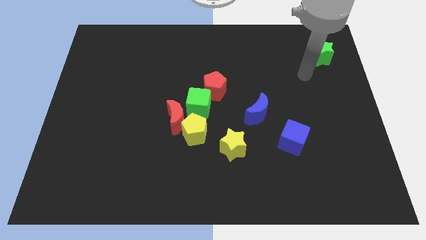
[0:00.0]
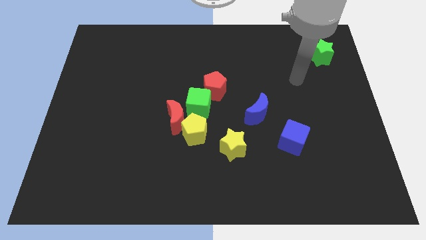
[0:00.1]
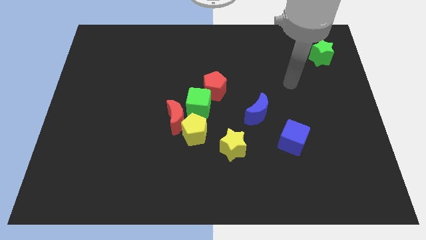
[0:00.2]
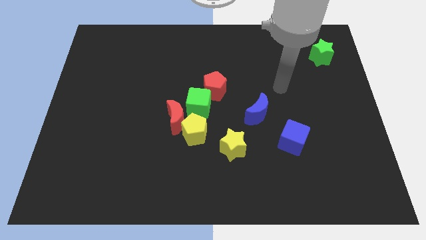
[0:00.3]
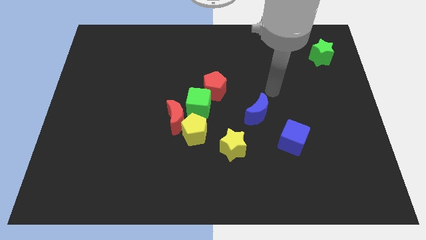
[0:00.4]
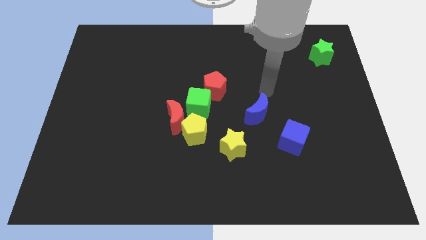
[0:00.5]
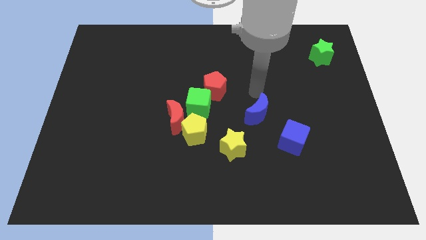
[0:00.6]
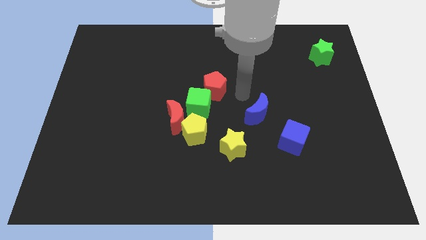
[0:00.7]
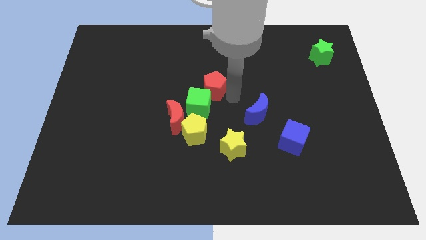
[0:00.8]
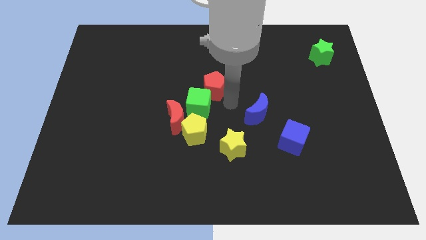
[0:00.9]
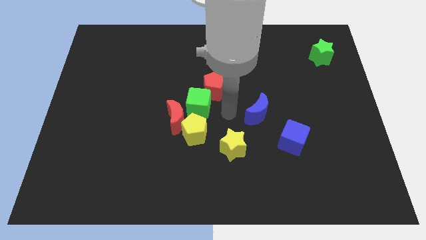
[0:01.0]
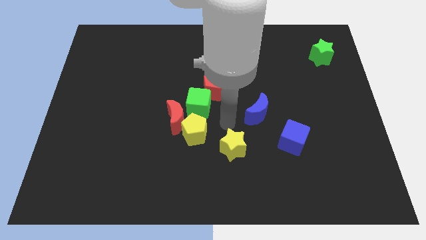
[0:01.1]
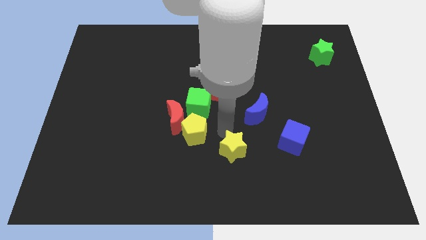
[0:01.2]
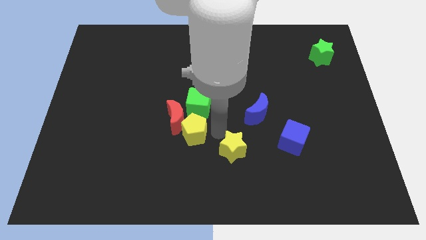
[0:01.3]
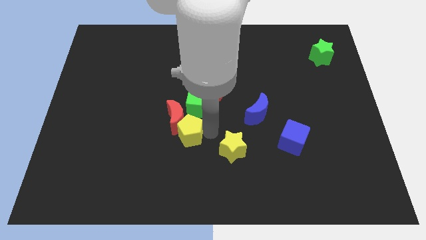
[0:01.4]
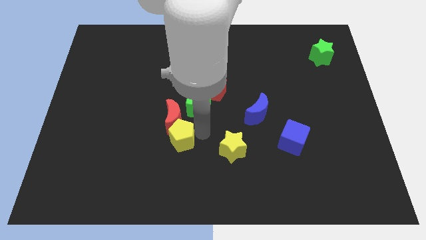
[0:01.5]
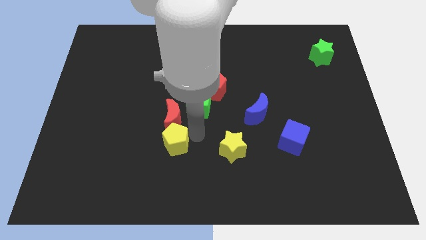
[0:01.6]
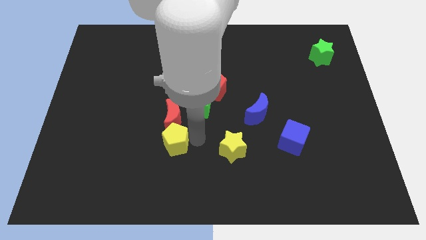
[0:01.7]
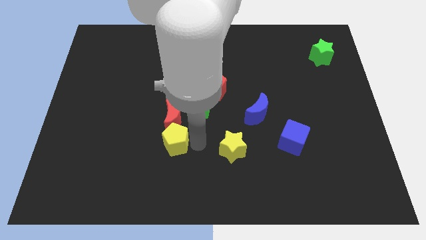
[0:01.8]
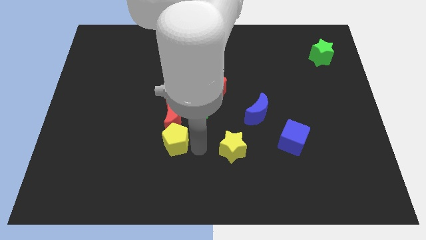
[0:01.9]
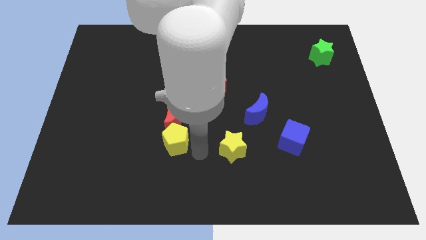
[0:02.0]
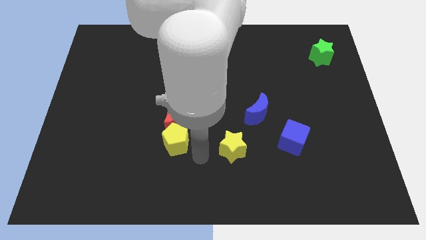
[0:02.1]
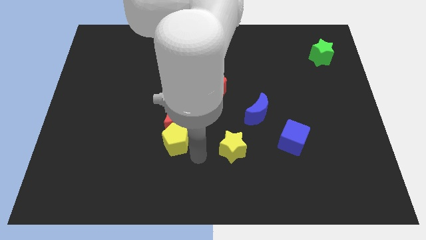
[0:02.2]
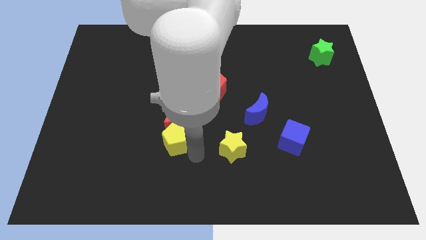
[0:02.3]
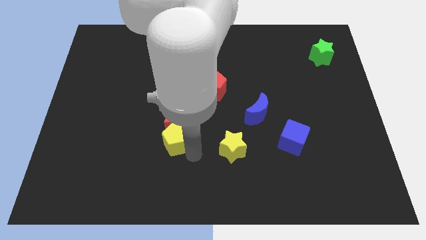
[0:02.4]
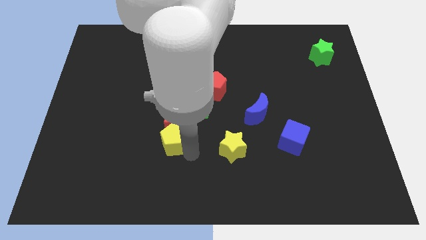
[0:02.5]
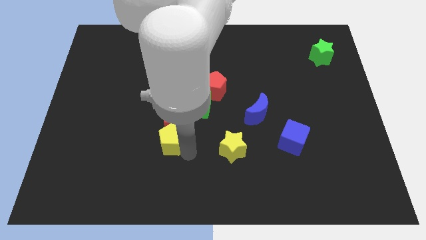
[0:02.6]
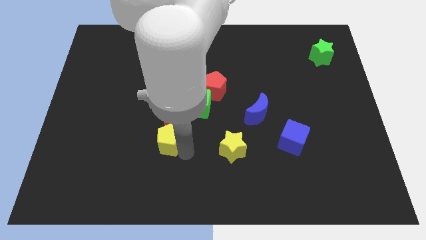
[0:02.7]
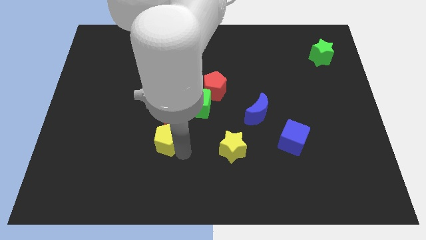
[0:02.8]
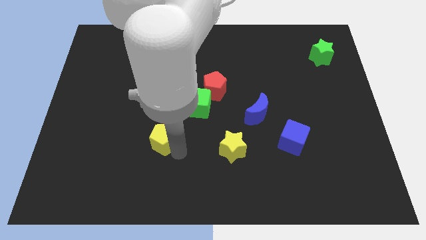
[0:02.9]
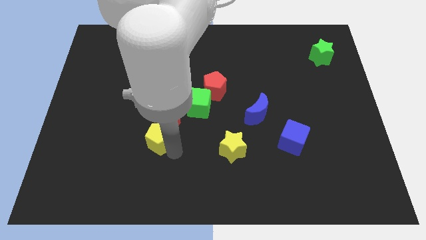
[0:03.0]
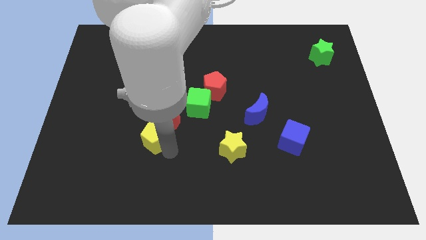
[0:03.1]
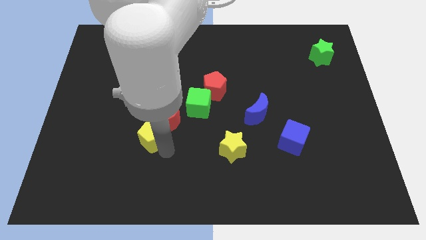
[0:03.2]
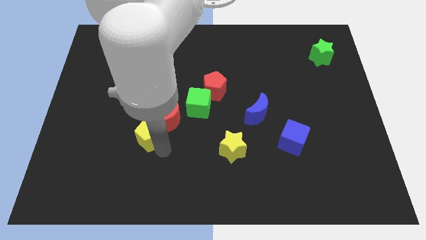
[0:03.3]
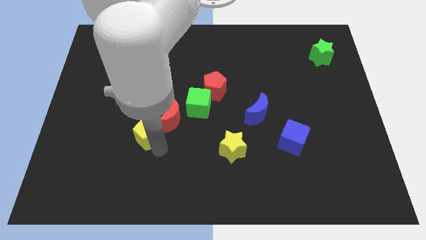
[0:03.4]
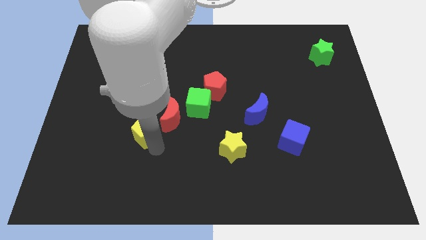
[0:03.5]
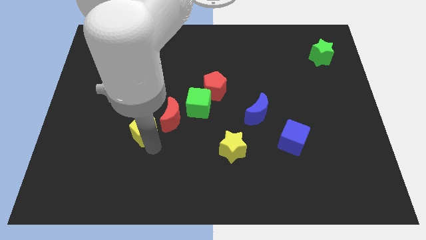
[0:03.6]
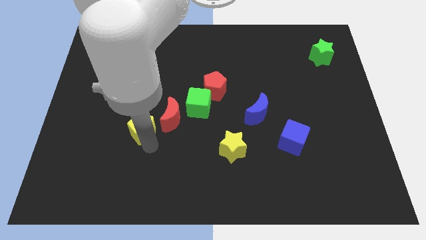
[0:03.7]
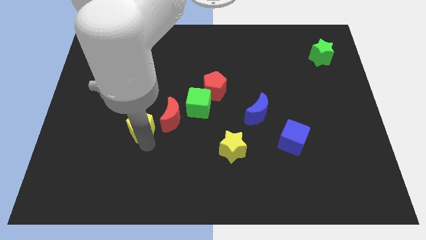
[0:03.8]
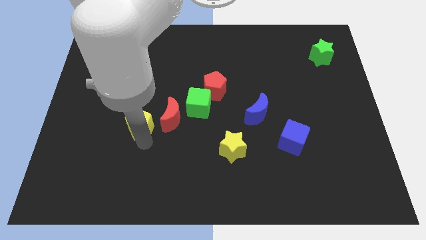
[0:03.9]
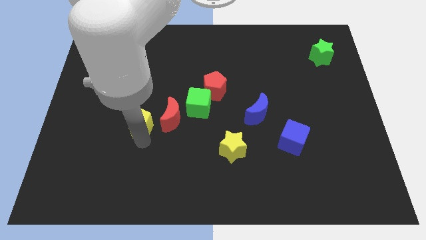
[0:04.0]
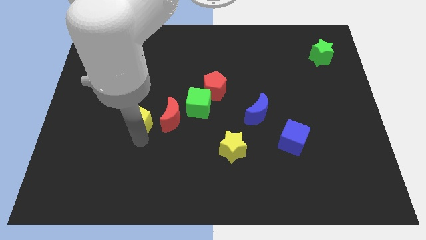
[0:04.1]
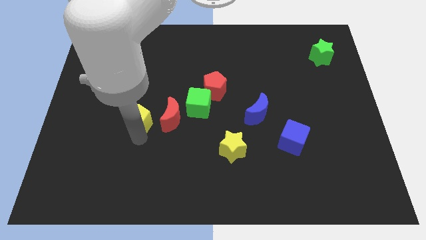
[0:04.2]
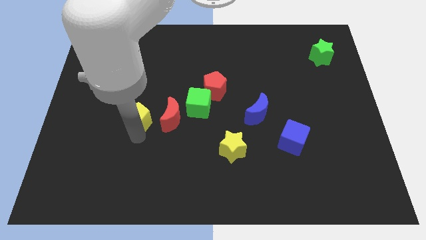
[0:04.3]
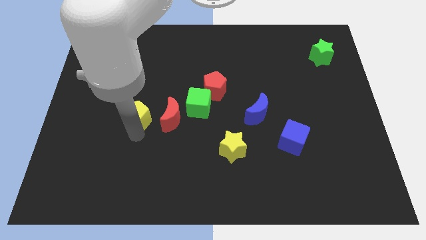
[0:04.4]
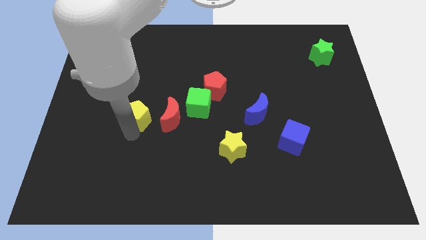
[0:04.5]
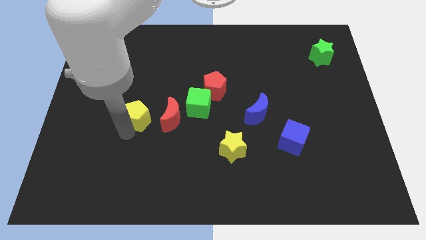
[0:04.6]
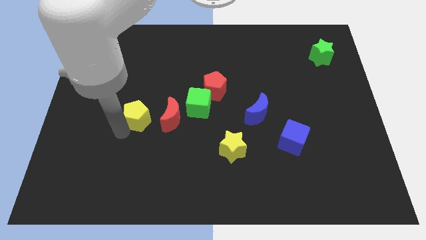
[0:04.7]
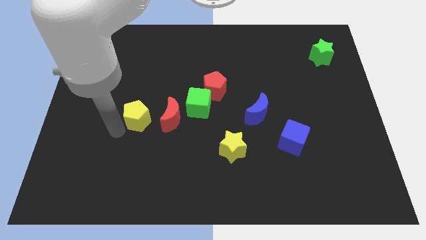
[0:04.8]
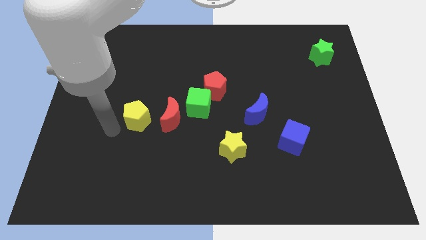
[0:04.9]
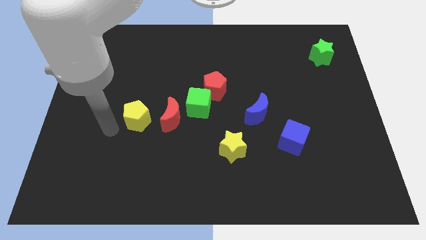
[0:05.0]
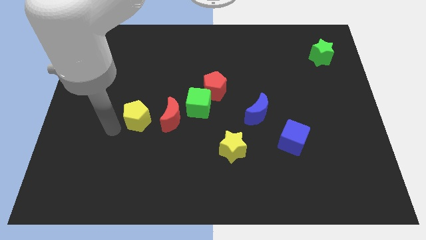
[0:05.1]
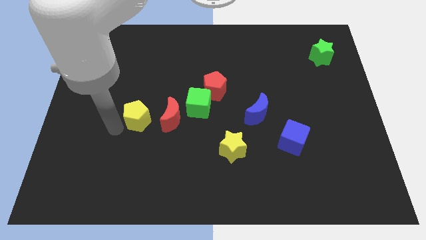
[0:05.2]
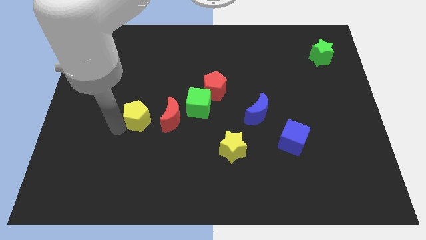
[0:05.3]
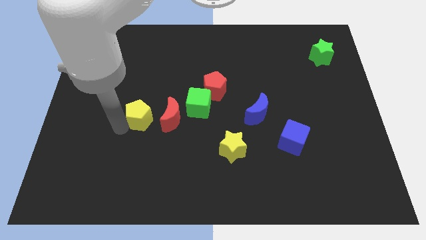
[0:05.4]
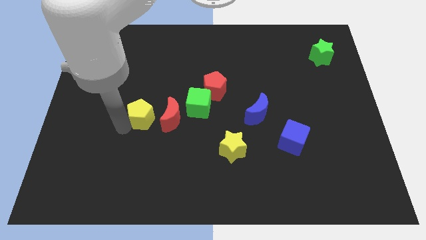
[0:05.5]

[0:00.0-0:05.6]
push the yellow pentagon to the top left side of the red moon

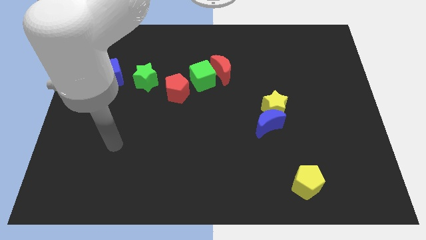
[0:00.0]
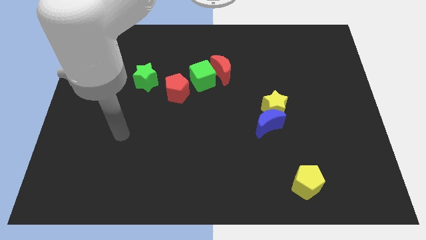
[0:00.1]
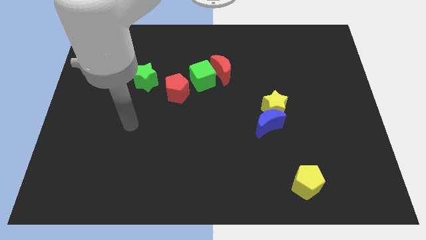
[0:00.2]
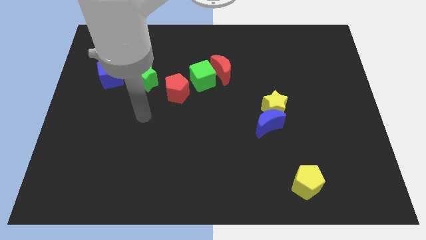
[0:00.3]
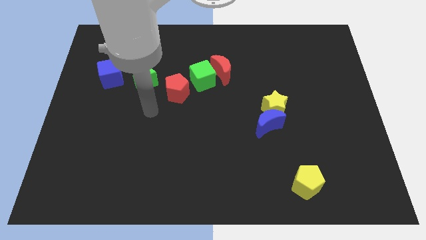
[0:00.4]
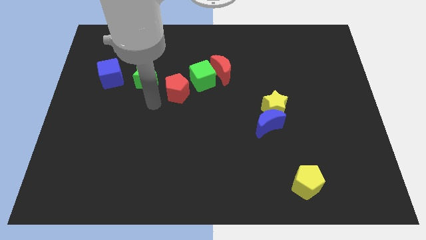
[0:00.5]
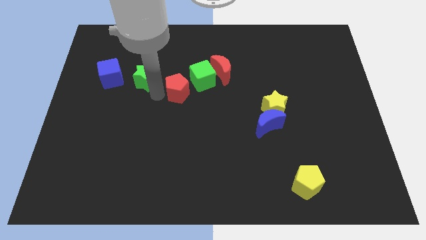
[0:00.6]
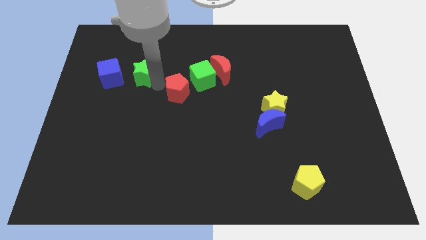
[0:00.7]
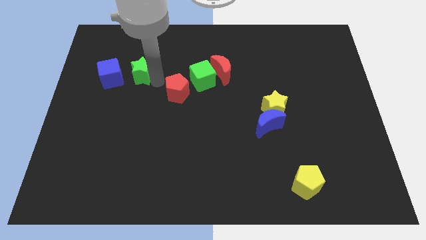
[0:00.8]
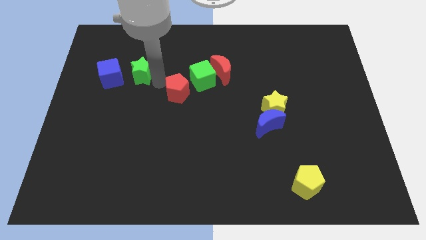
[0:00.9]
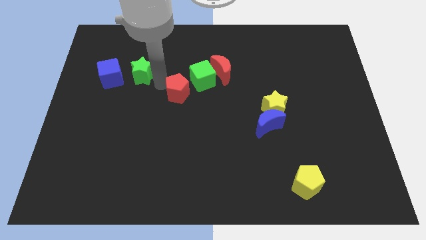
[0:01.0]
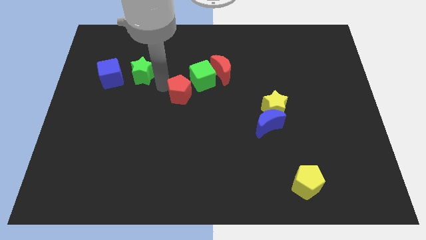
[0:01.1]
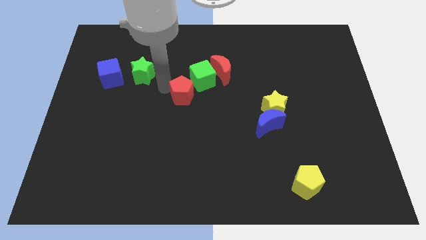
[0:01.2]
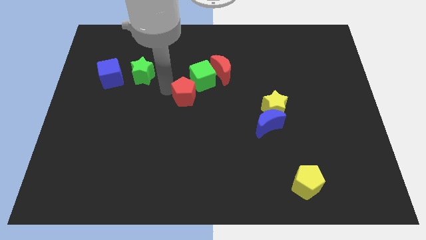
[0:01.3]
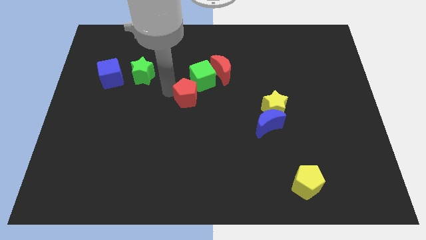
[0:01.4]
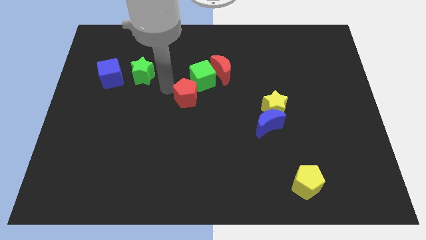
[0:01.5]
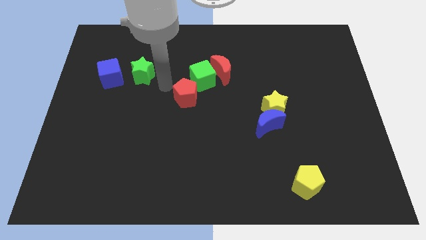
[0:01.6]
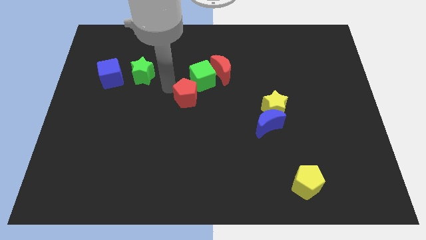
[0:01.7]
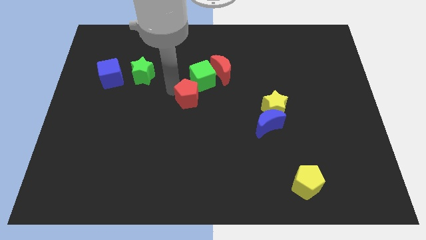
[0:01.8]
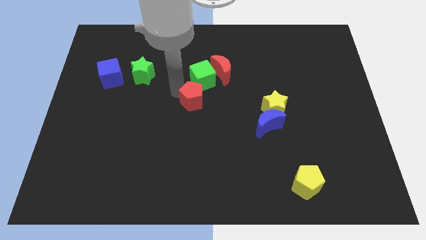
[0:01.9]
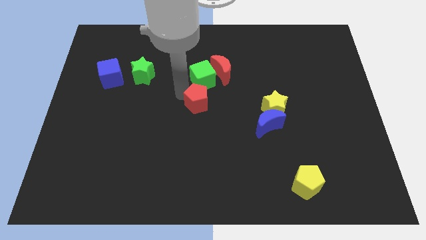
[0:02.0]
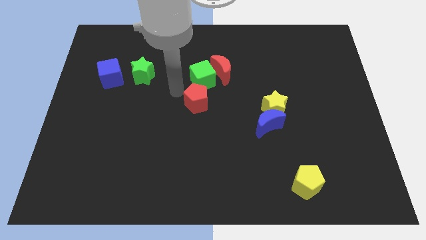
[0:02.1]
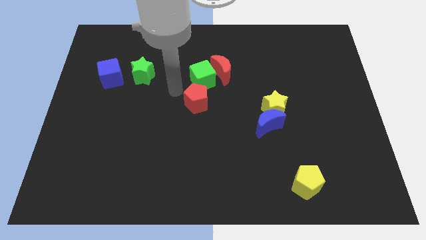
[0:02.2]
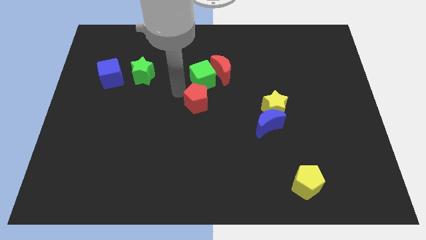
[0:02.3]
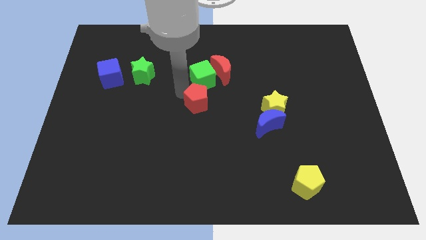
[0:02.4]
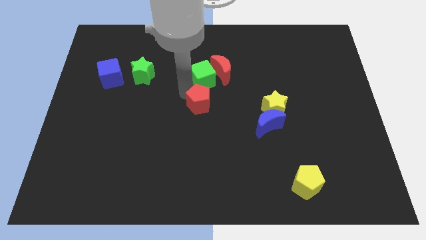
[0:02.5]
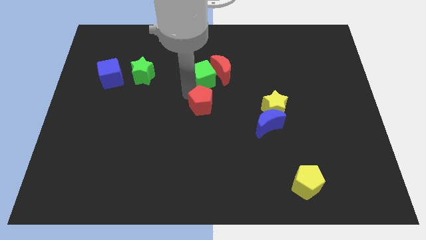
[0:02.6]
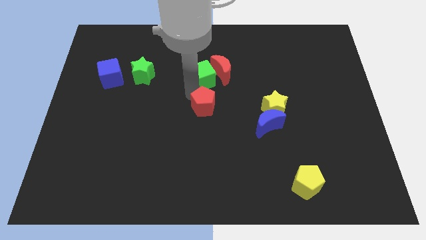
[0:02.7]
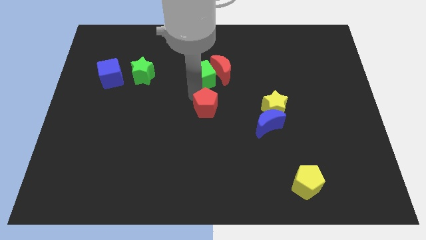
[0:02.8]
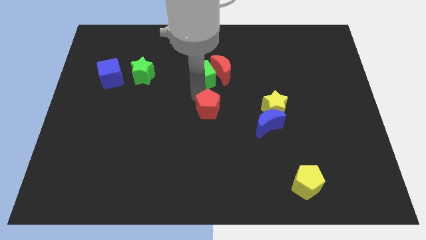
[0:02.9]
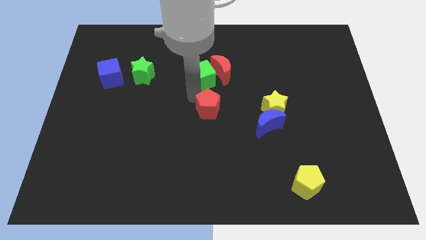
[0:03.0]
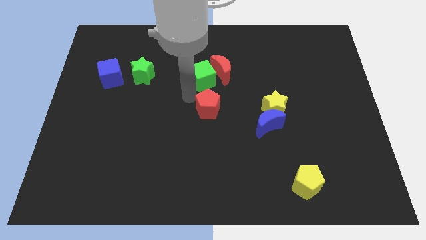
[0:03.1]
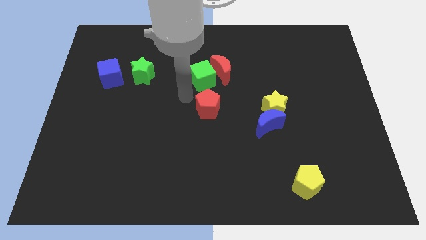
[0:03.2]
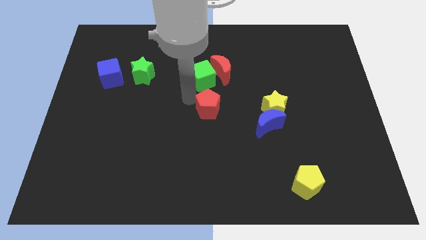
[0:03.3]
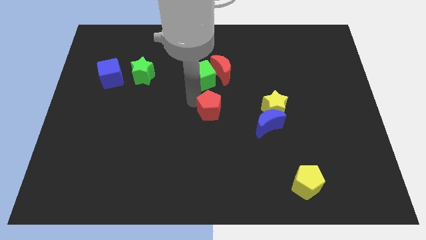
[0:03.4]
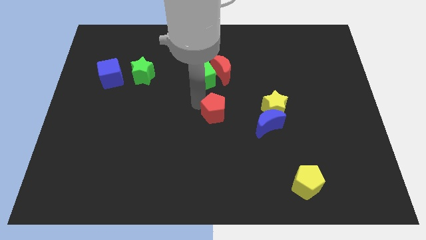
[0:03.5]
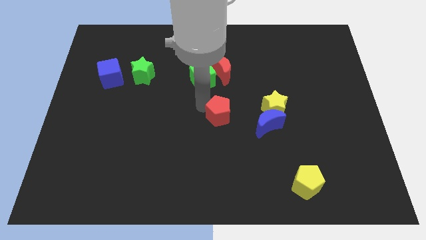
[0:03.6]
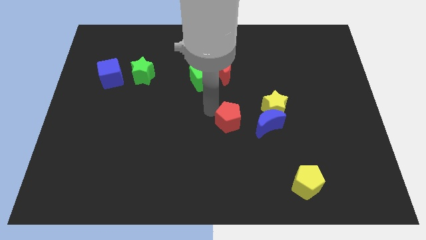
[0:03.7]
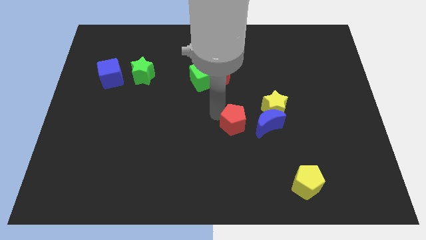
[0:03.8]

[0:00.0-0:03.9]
move the red pentagon to the bottom left side of the yellow star
